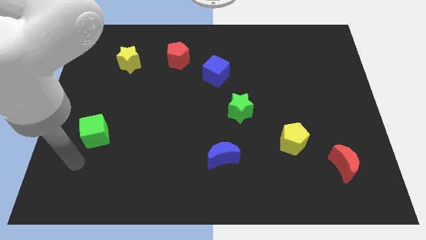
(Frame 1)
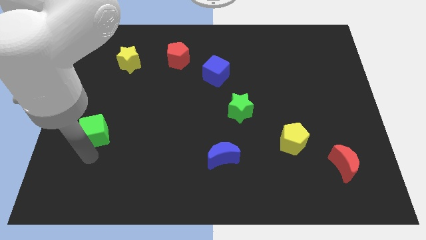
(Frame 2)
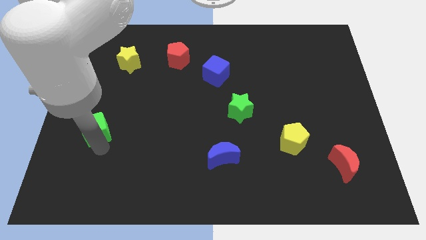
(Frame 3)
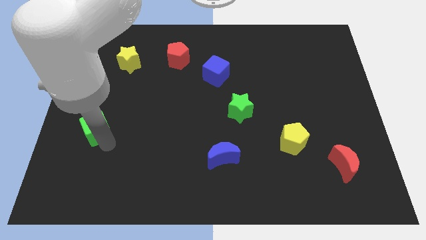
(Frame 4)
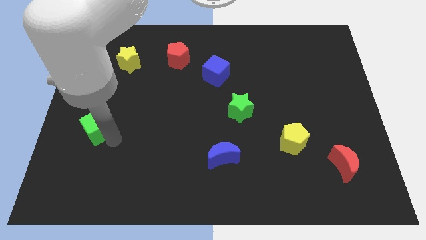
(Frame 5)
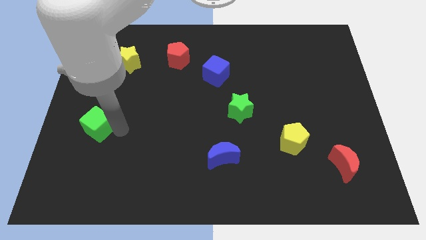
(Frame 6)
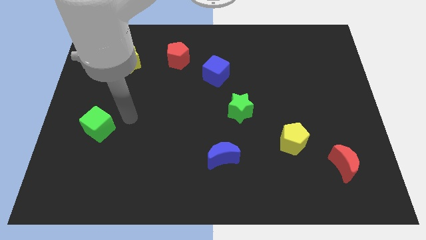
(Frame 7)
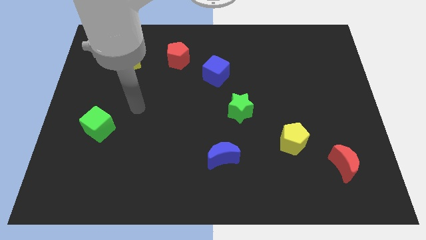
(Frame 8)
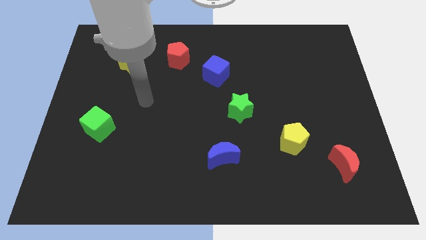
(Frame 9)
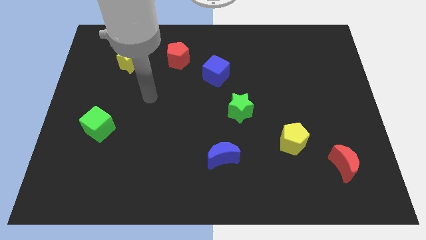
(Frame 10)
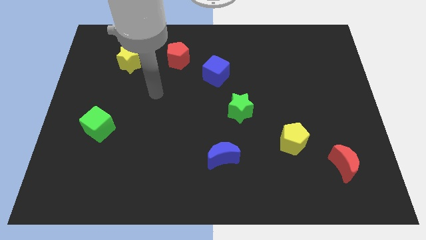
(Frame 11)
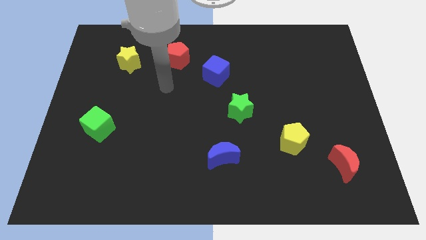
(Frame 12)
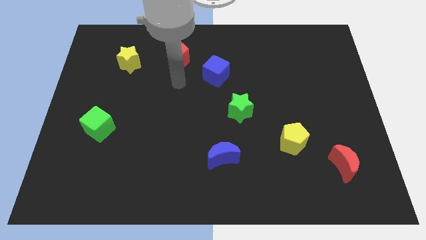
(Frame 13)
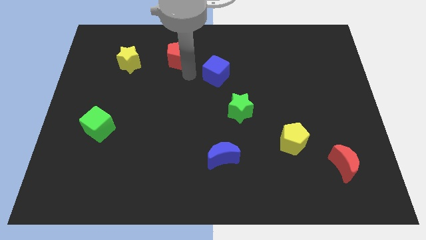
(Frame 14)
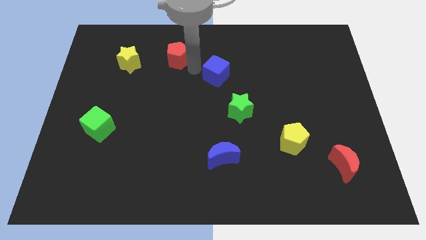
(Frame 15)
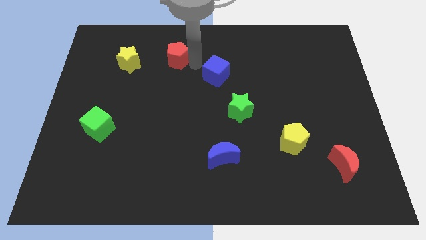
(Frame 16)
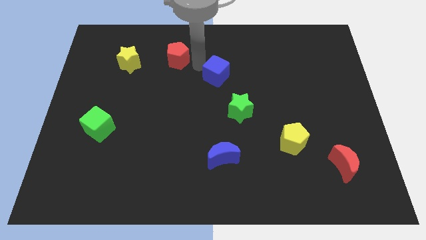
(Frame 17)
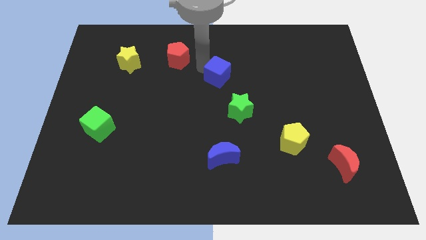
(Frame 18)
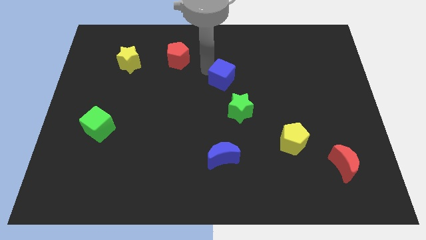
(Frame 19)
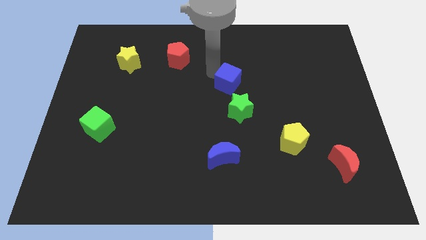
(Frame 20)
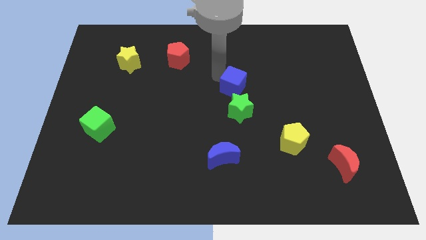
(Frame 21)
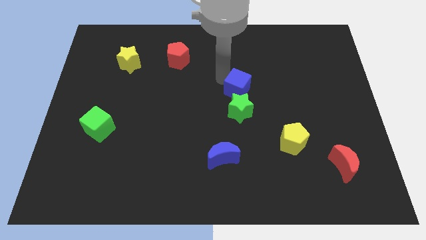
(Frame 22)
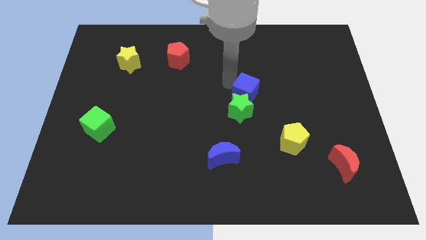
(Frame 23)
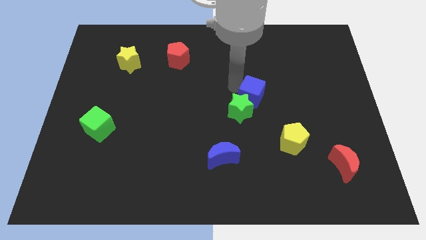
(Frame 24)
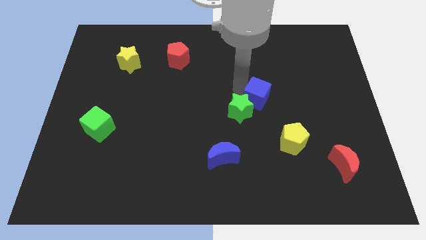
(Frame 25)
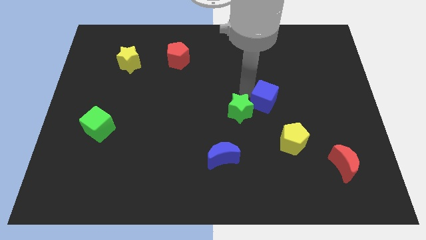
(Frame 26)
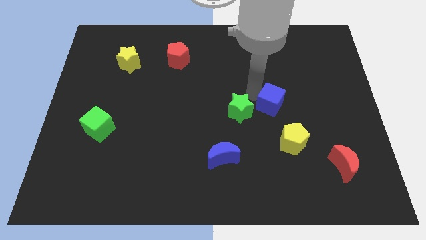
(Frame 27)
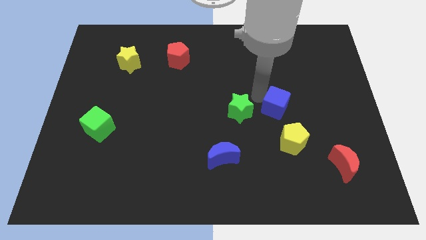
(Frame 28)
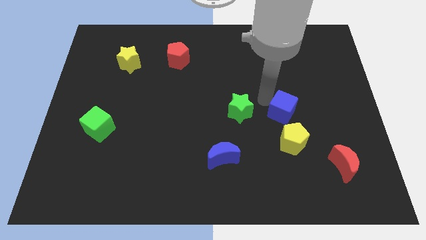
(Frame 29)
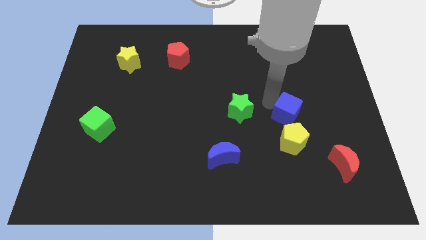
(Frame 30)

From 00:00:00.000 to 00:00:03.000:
move the blue cube downwards and to the right diagonally

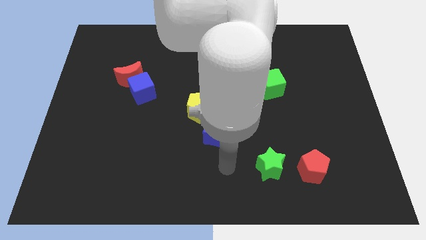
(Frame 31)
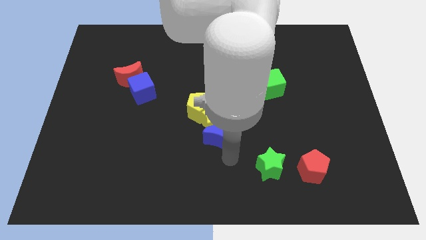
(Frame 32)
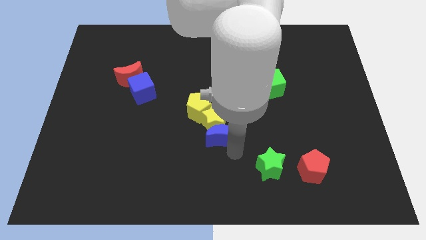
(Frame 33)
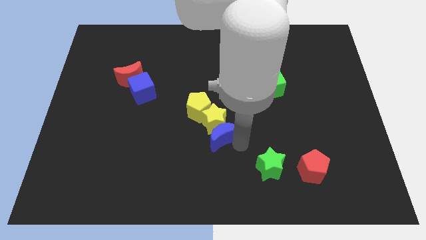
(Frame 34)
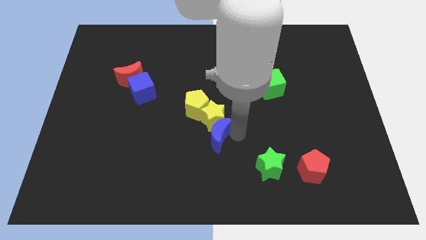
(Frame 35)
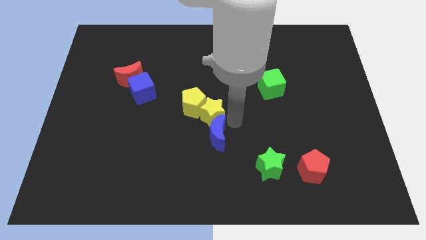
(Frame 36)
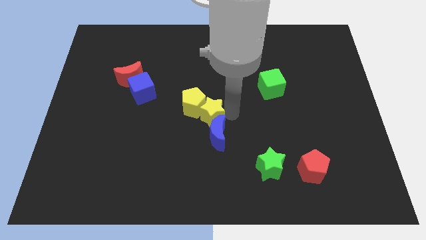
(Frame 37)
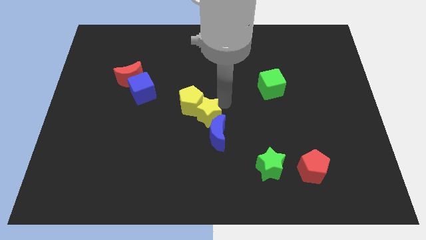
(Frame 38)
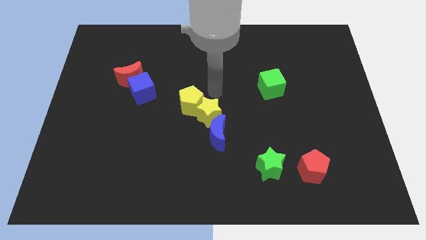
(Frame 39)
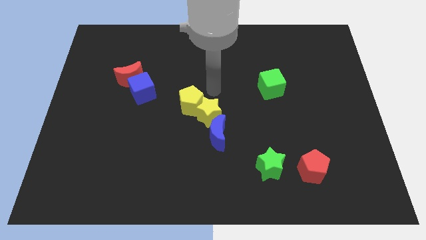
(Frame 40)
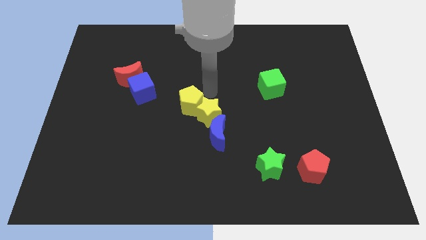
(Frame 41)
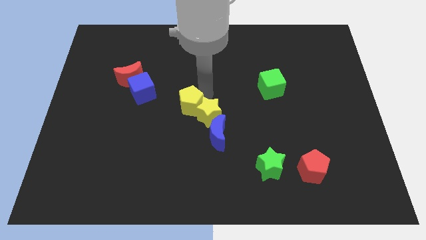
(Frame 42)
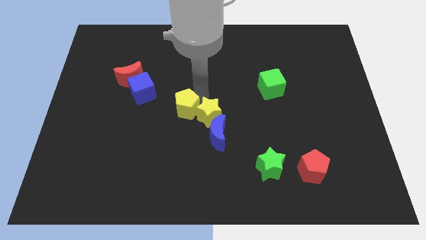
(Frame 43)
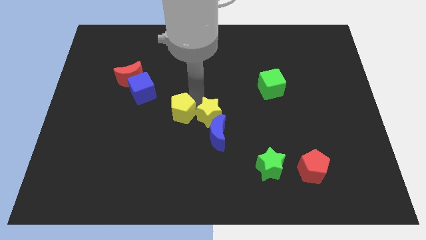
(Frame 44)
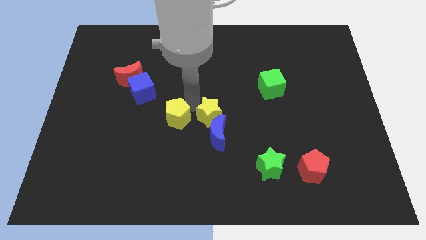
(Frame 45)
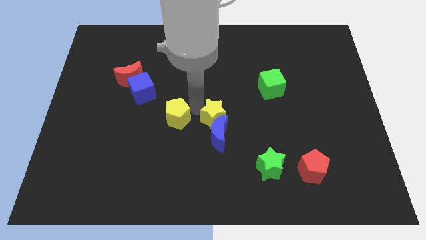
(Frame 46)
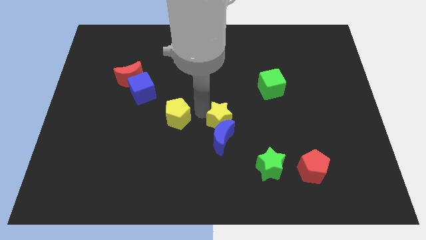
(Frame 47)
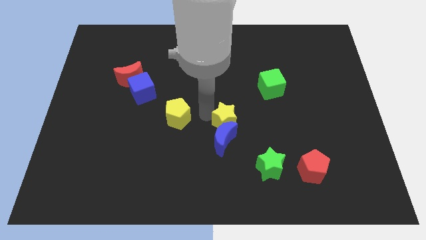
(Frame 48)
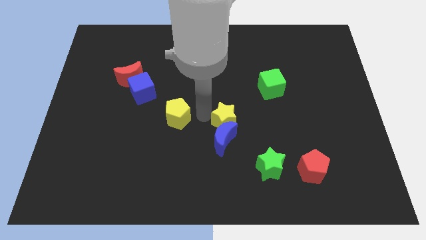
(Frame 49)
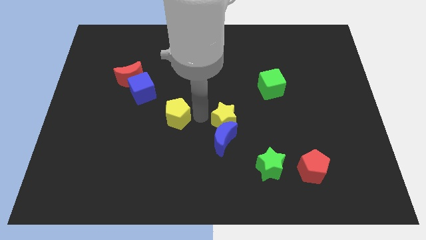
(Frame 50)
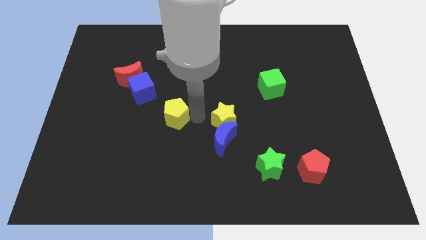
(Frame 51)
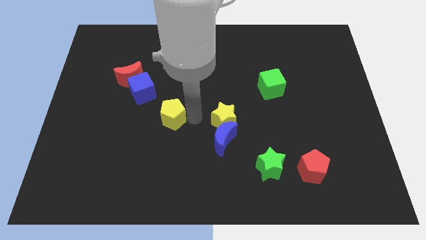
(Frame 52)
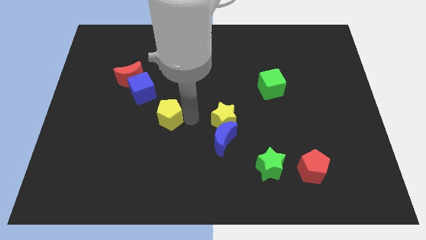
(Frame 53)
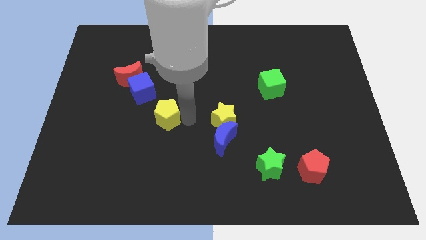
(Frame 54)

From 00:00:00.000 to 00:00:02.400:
slide the yellow pentagon a little left

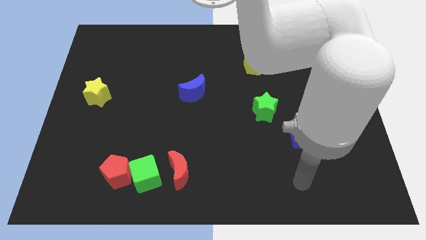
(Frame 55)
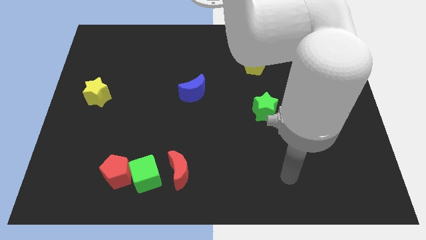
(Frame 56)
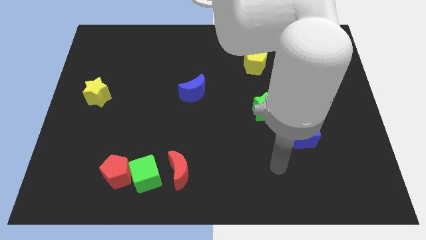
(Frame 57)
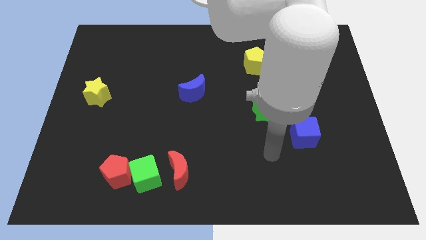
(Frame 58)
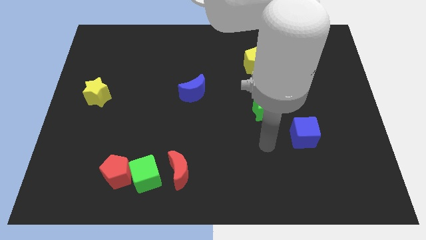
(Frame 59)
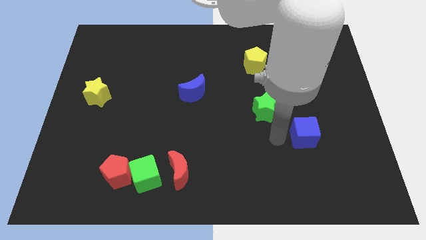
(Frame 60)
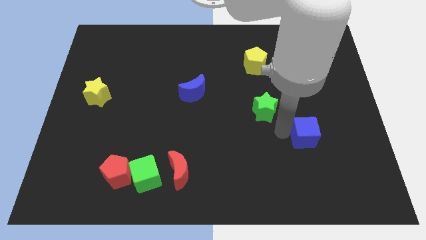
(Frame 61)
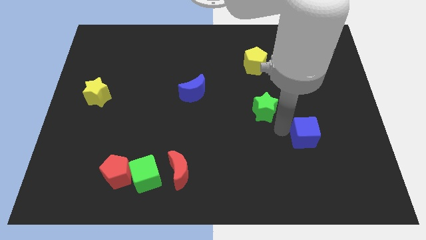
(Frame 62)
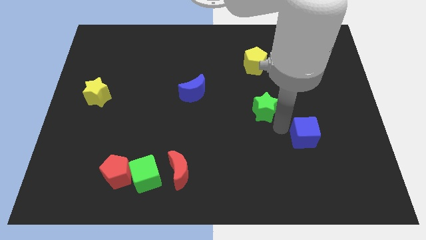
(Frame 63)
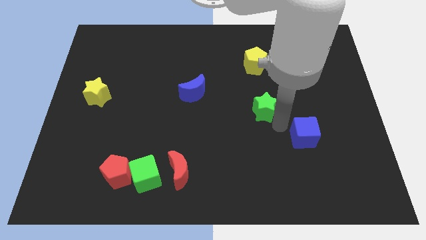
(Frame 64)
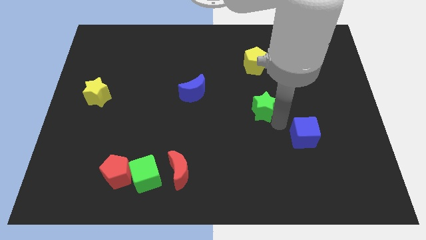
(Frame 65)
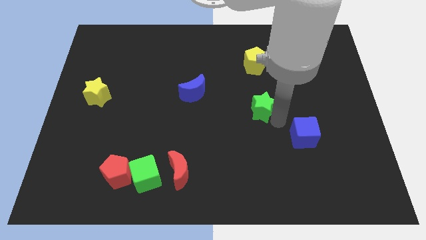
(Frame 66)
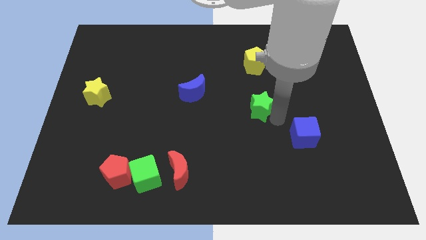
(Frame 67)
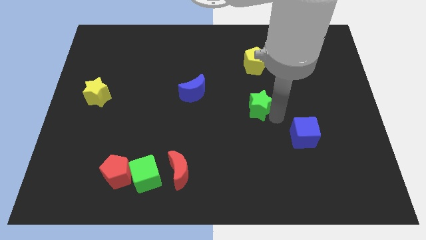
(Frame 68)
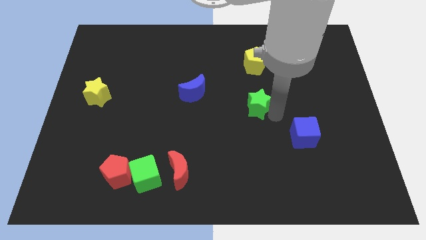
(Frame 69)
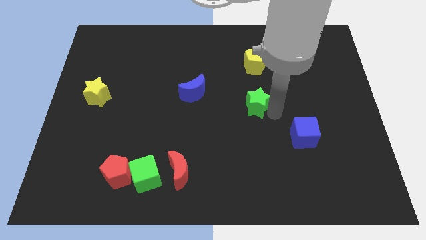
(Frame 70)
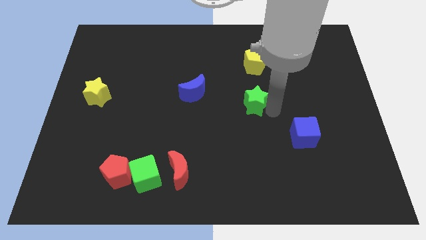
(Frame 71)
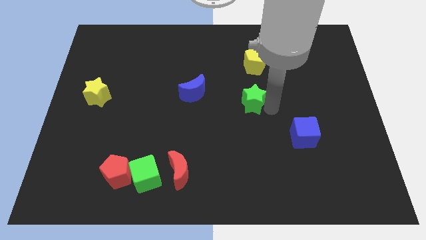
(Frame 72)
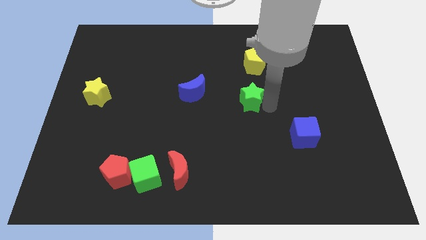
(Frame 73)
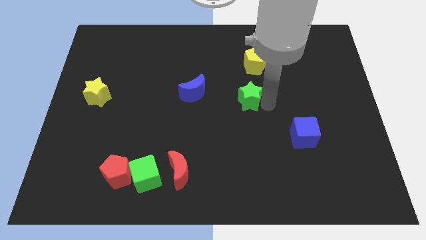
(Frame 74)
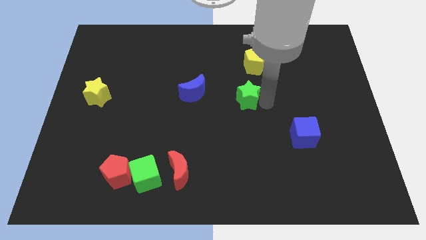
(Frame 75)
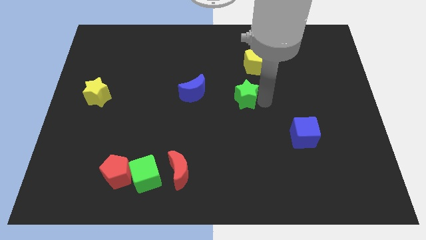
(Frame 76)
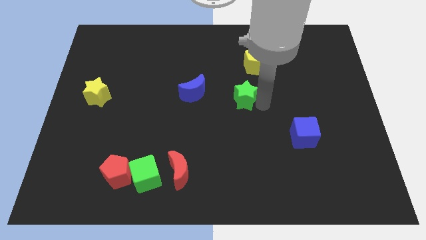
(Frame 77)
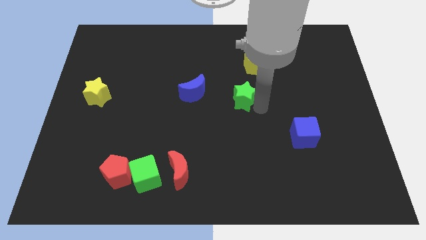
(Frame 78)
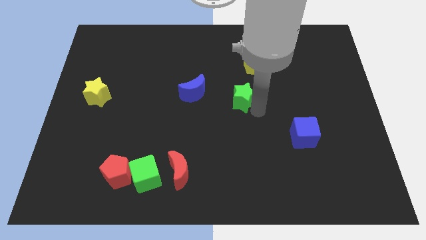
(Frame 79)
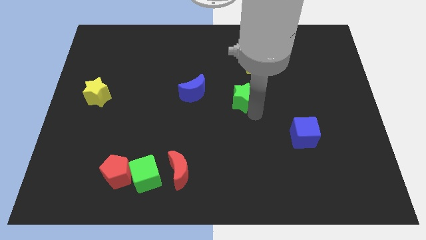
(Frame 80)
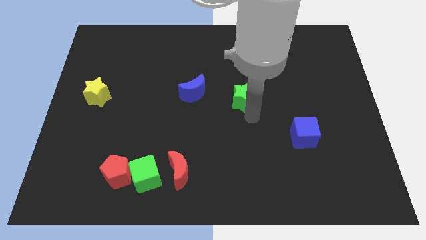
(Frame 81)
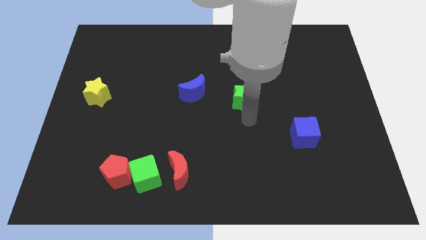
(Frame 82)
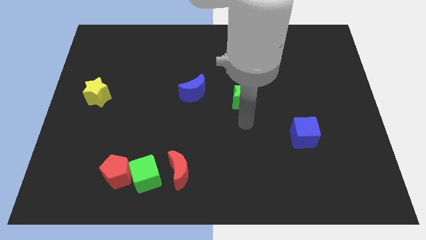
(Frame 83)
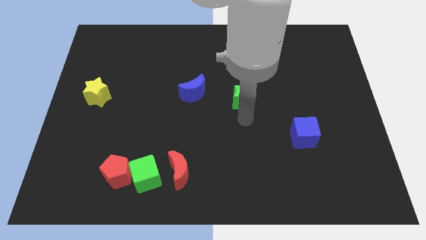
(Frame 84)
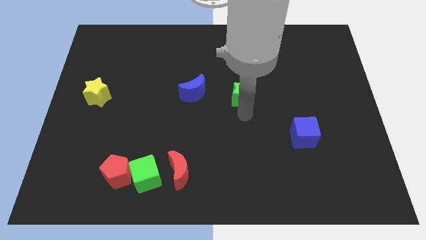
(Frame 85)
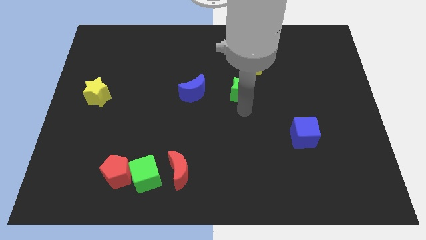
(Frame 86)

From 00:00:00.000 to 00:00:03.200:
slightly push the green star upwards and to the left
